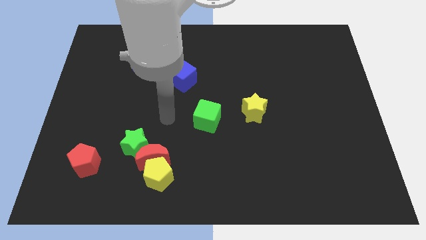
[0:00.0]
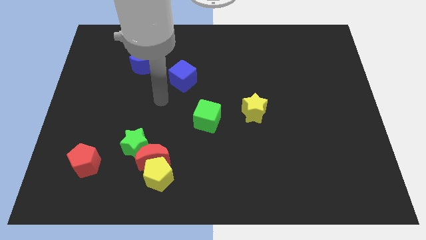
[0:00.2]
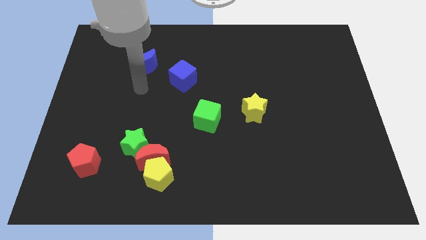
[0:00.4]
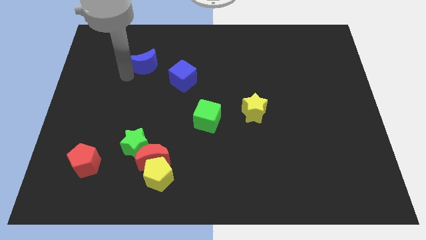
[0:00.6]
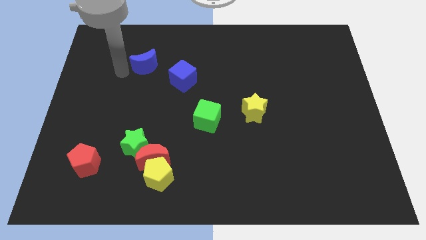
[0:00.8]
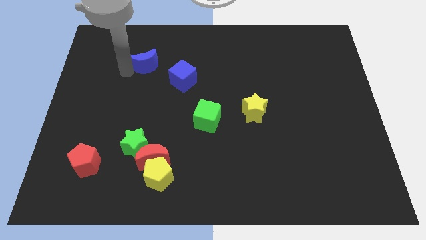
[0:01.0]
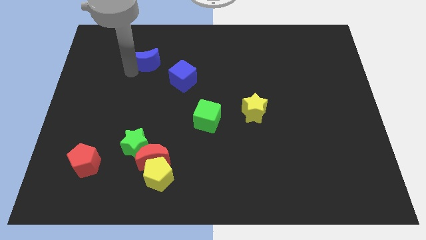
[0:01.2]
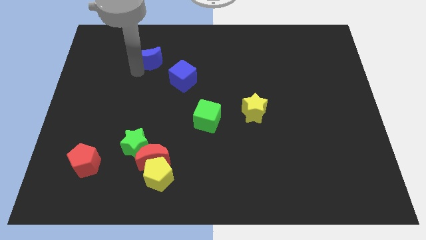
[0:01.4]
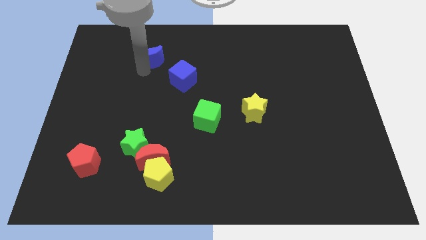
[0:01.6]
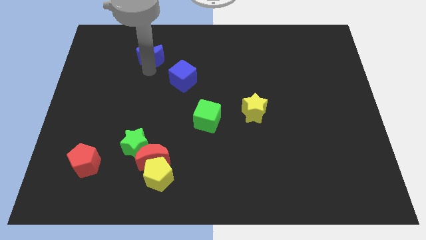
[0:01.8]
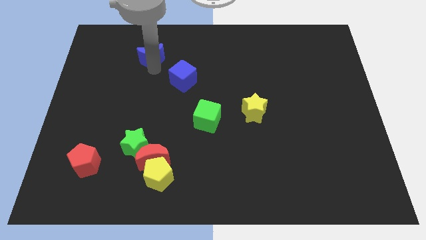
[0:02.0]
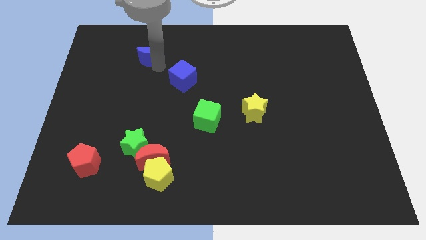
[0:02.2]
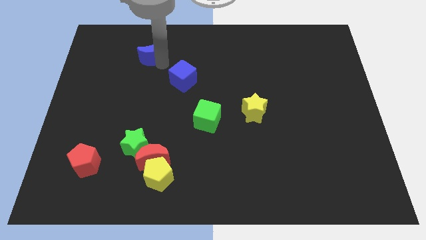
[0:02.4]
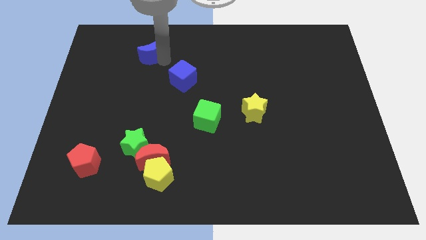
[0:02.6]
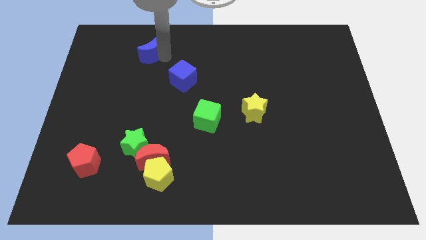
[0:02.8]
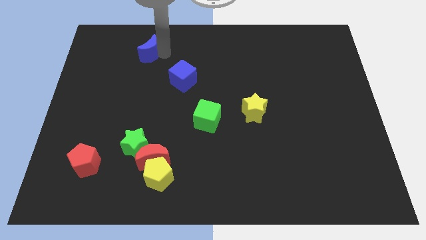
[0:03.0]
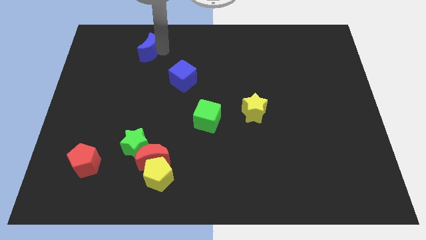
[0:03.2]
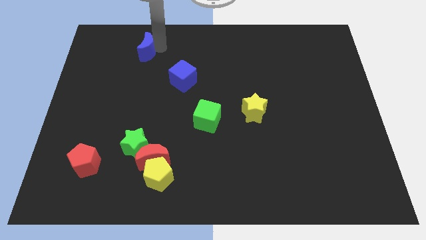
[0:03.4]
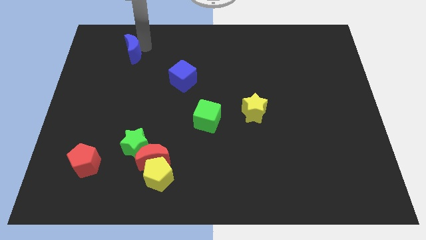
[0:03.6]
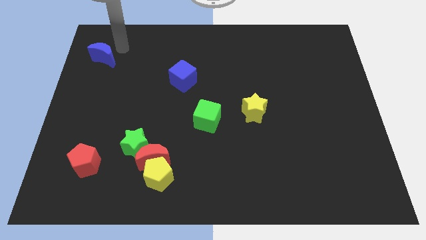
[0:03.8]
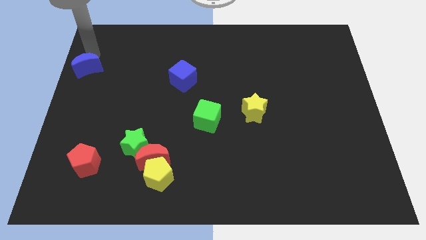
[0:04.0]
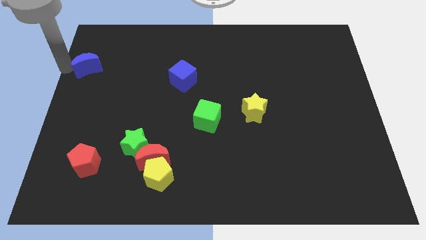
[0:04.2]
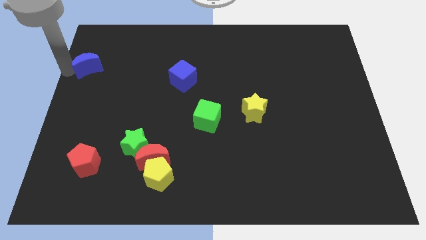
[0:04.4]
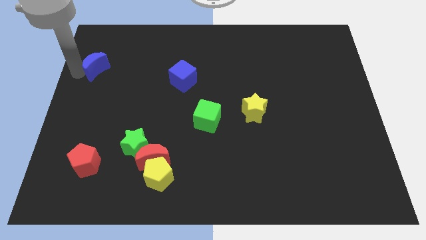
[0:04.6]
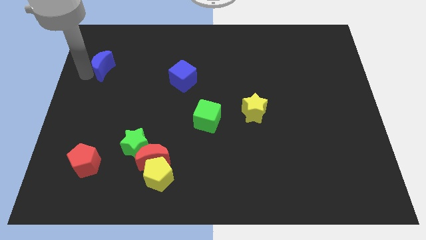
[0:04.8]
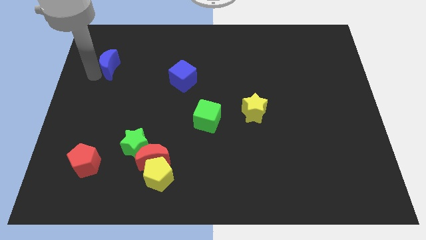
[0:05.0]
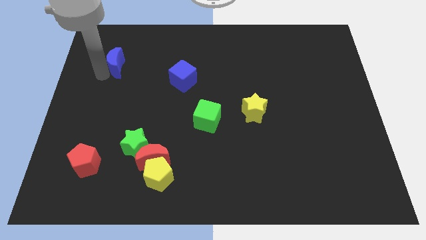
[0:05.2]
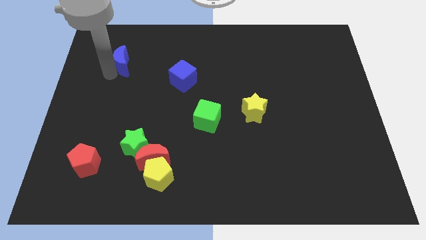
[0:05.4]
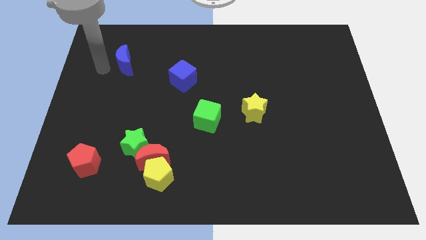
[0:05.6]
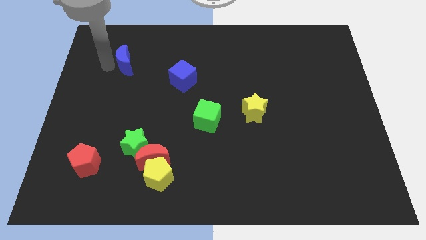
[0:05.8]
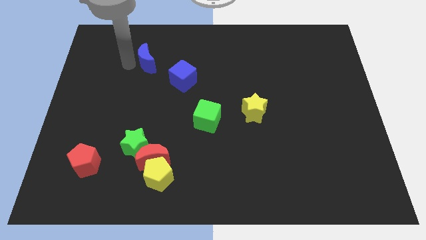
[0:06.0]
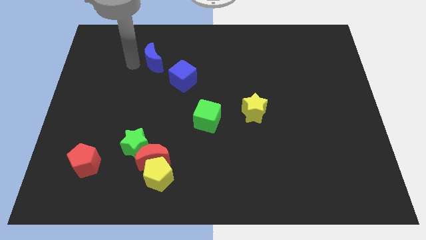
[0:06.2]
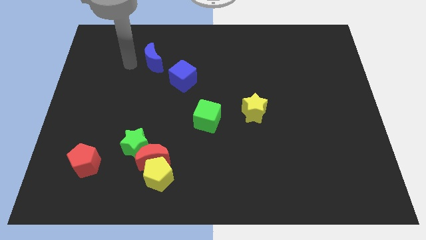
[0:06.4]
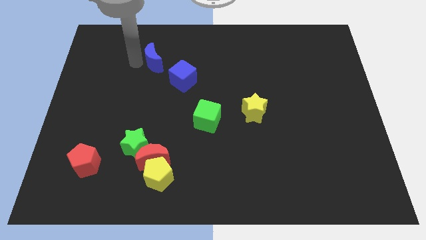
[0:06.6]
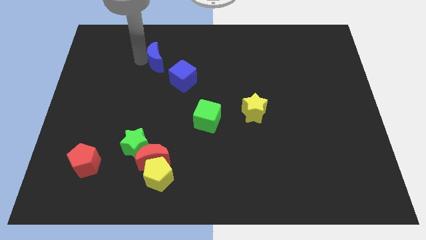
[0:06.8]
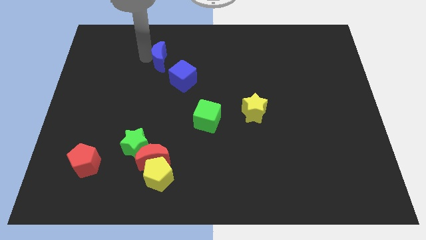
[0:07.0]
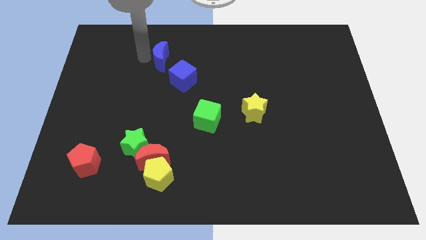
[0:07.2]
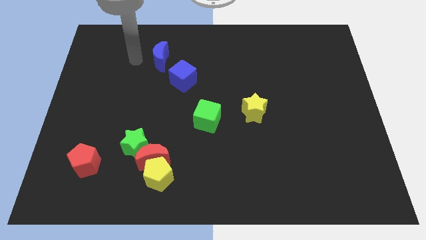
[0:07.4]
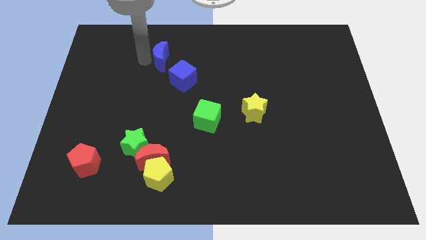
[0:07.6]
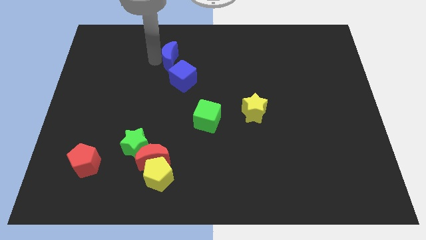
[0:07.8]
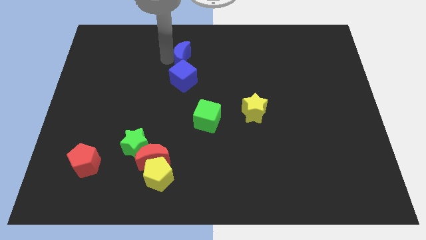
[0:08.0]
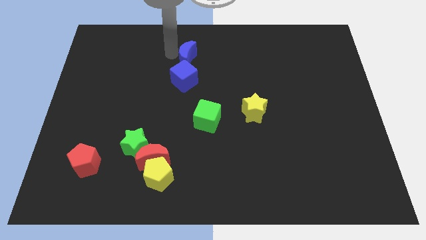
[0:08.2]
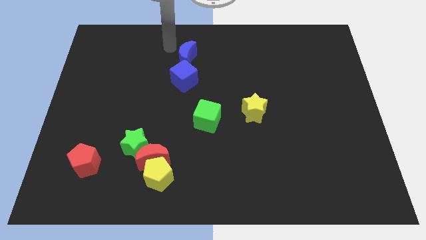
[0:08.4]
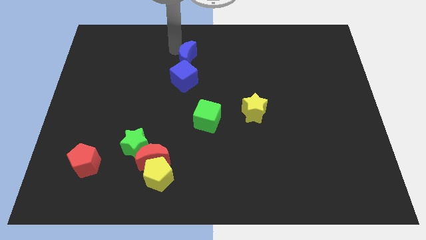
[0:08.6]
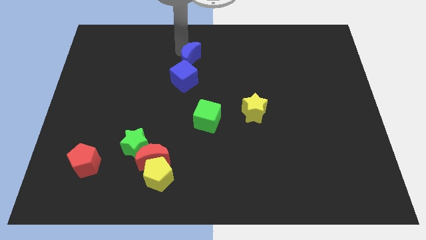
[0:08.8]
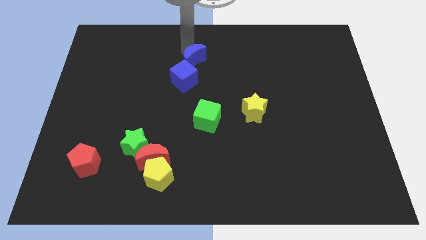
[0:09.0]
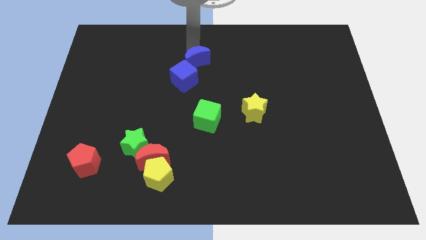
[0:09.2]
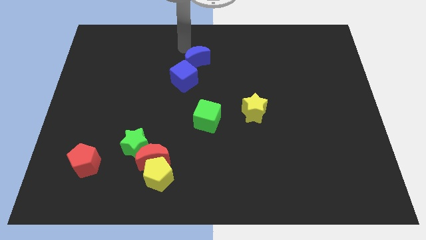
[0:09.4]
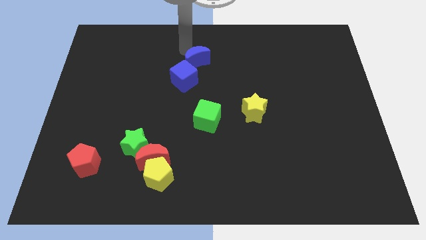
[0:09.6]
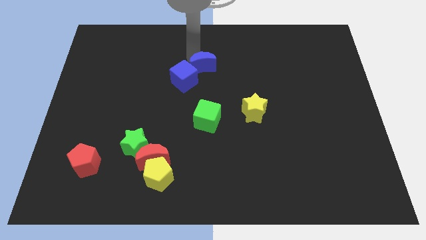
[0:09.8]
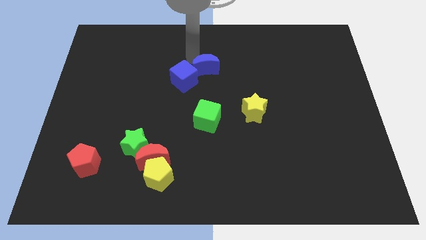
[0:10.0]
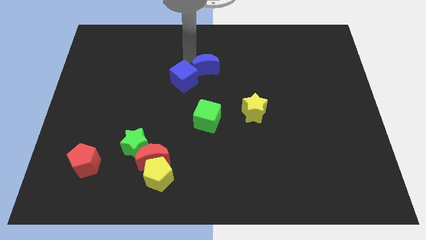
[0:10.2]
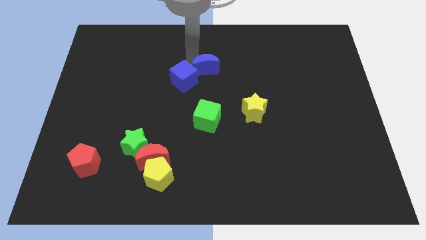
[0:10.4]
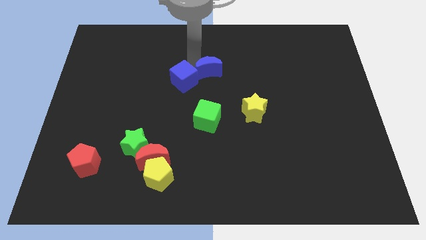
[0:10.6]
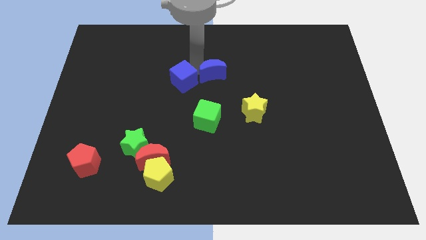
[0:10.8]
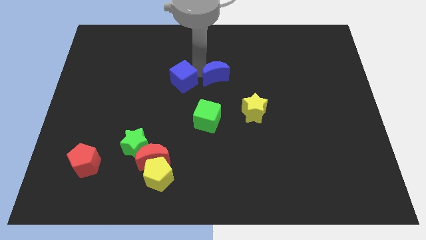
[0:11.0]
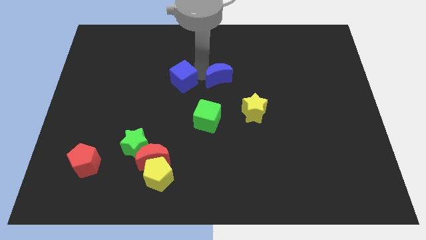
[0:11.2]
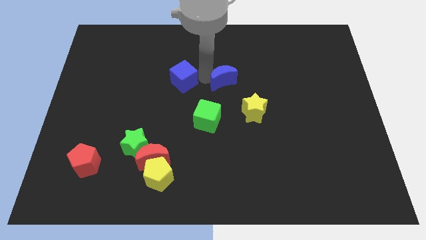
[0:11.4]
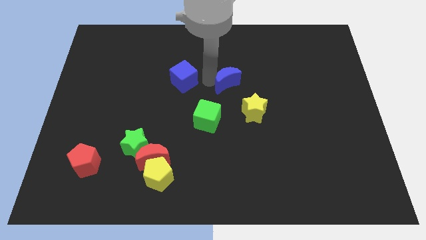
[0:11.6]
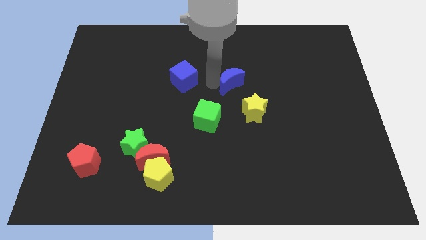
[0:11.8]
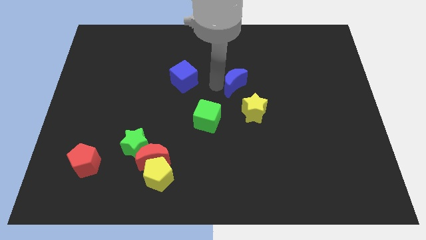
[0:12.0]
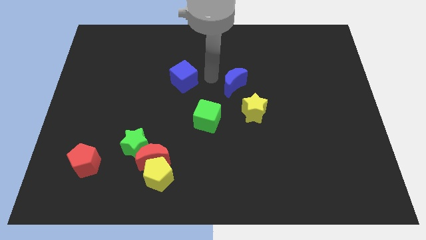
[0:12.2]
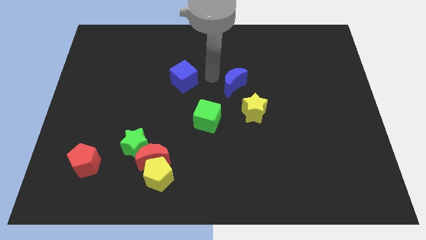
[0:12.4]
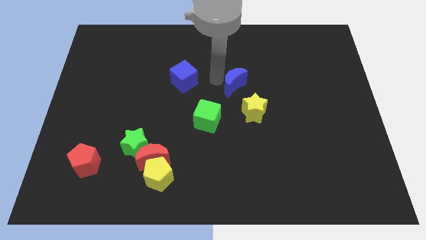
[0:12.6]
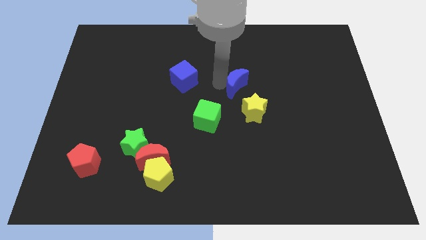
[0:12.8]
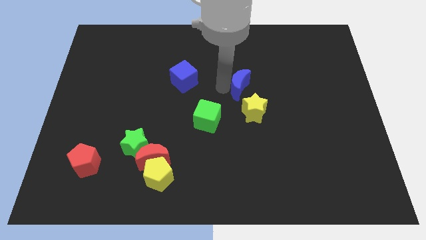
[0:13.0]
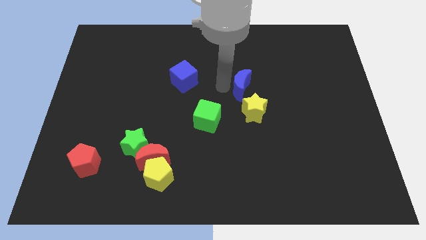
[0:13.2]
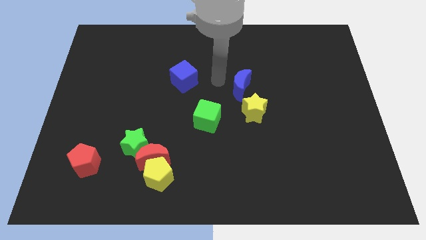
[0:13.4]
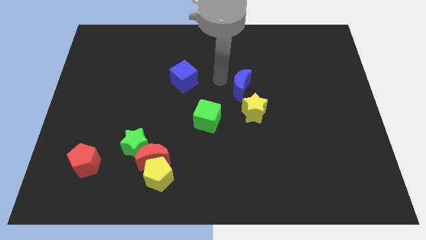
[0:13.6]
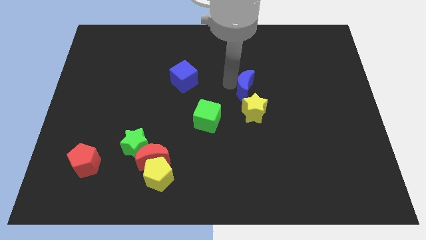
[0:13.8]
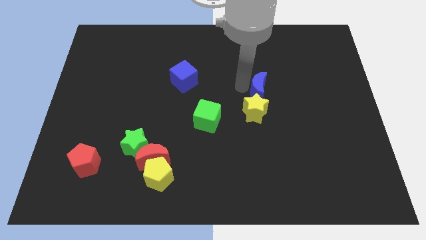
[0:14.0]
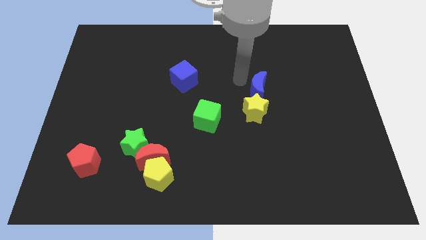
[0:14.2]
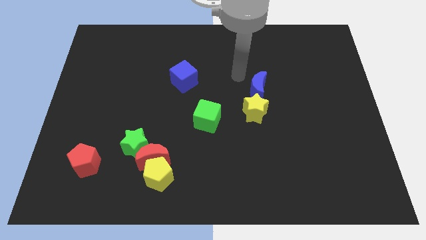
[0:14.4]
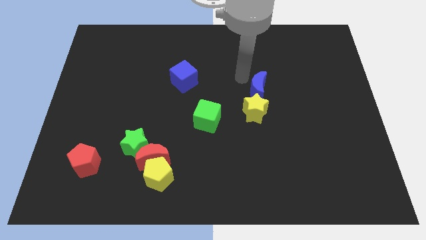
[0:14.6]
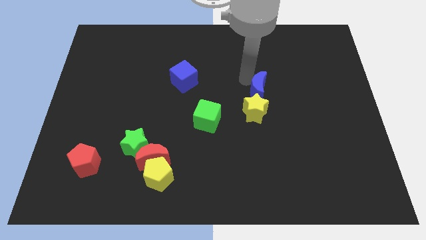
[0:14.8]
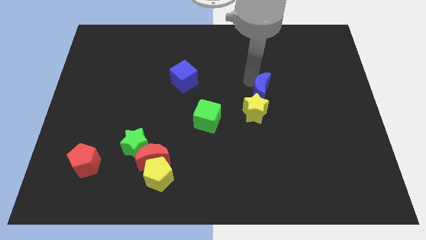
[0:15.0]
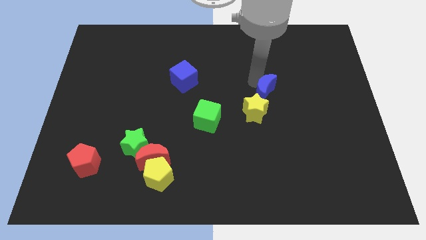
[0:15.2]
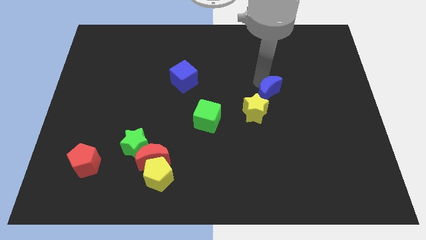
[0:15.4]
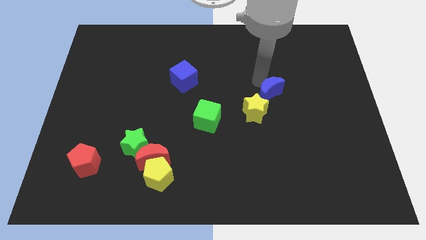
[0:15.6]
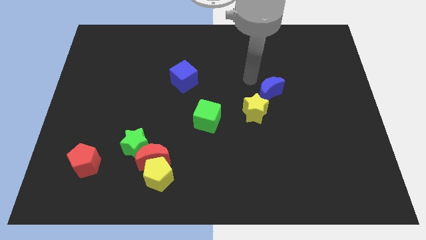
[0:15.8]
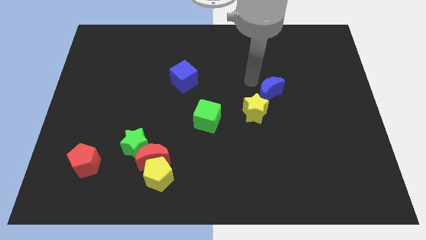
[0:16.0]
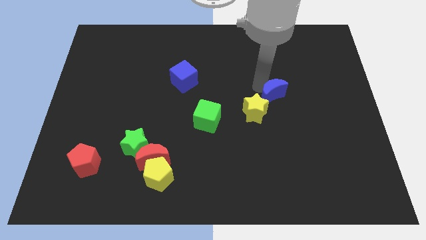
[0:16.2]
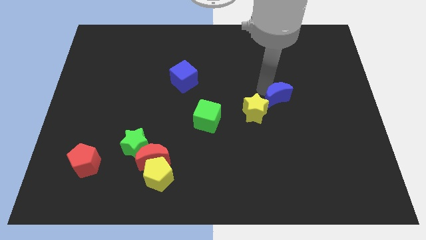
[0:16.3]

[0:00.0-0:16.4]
put the blue moon right of the yellow star
